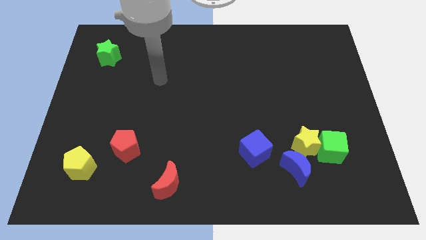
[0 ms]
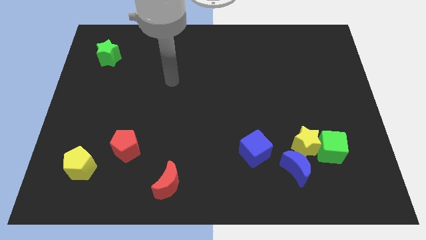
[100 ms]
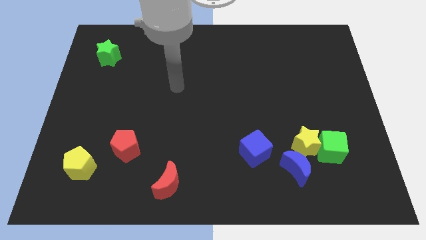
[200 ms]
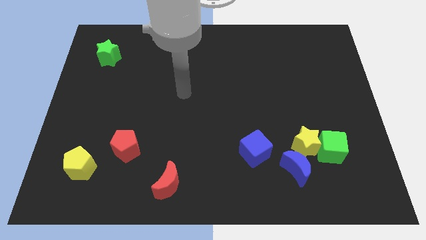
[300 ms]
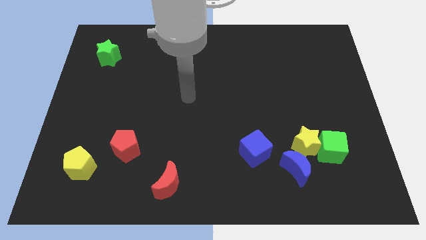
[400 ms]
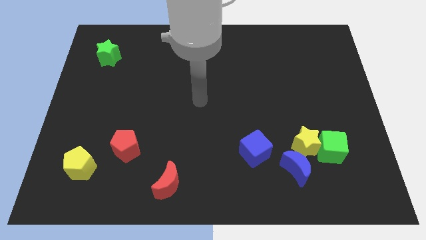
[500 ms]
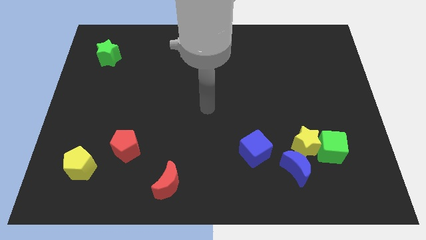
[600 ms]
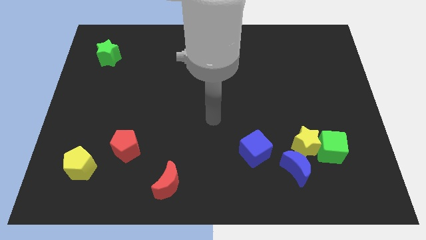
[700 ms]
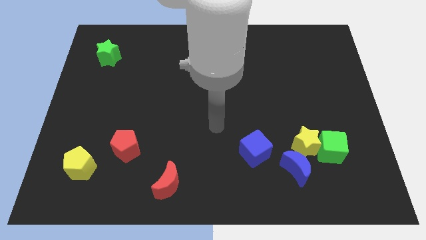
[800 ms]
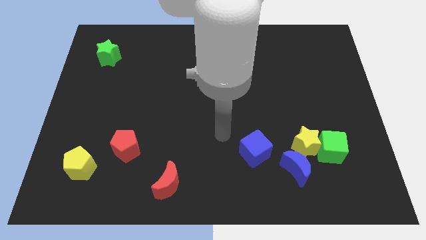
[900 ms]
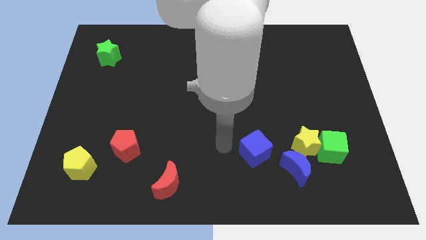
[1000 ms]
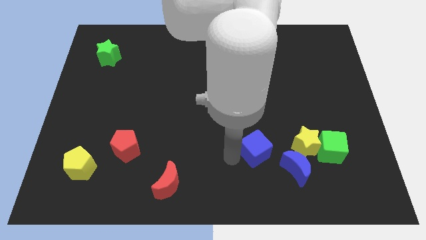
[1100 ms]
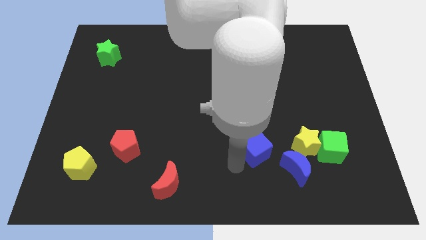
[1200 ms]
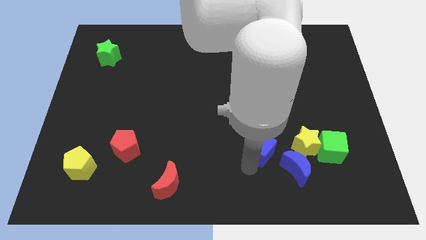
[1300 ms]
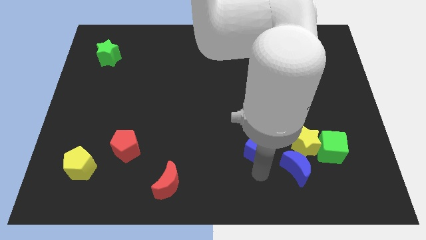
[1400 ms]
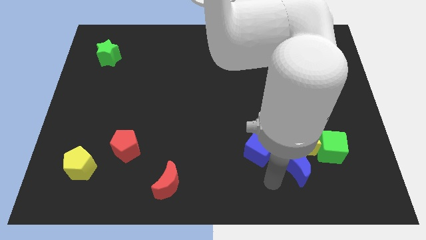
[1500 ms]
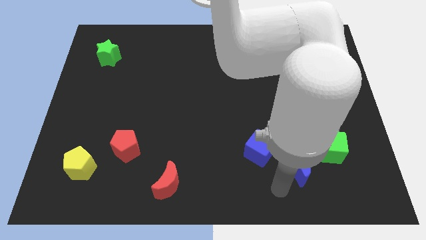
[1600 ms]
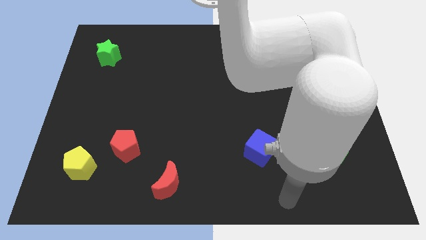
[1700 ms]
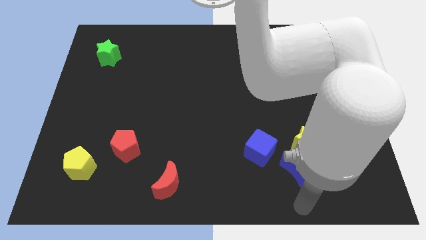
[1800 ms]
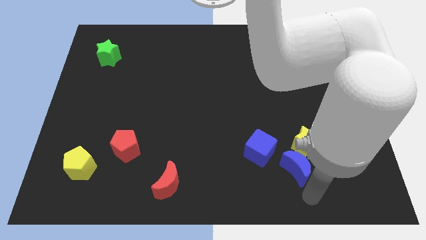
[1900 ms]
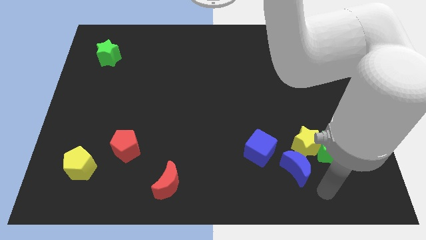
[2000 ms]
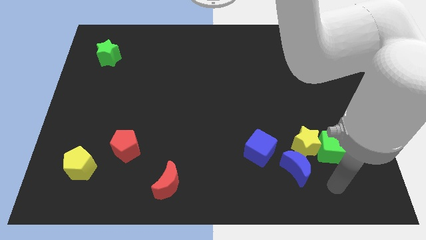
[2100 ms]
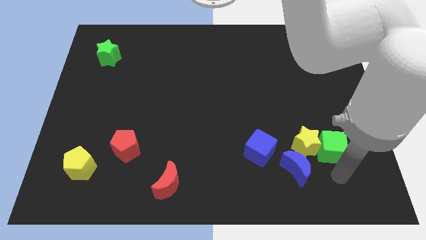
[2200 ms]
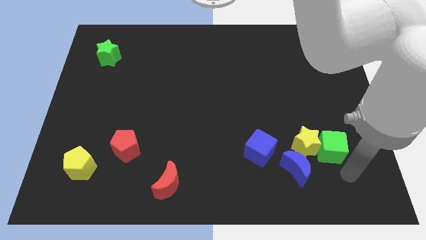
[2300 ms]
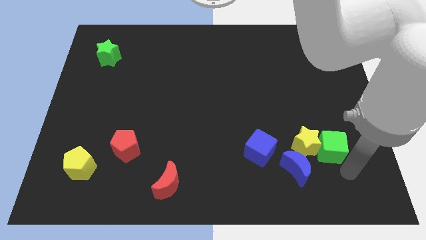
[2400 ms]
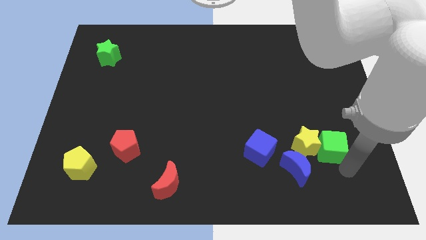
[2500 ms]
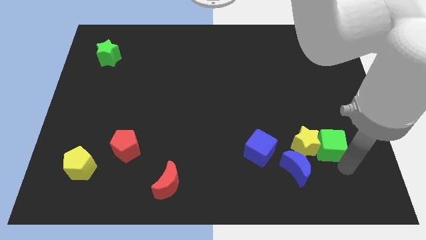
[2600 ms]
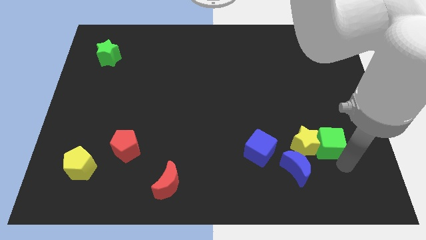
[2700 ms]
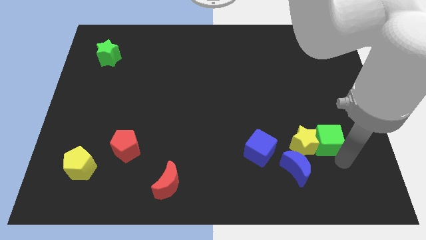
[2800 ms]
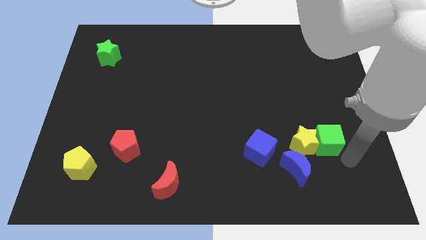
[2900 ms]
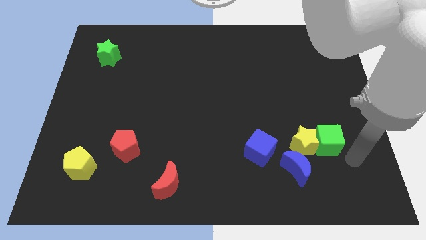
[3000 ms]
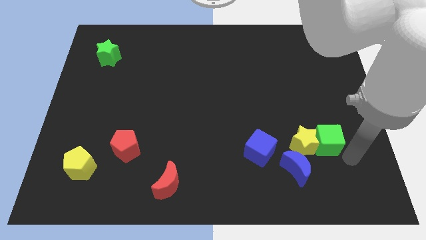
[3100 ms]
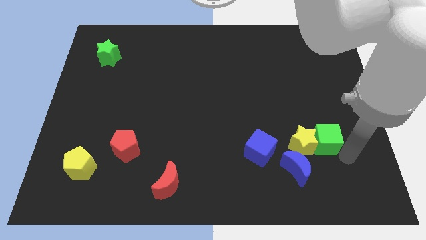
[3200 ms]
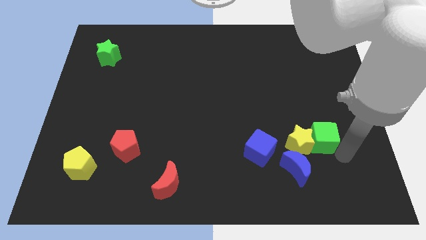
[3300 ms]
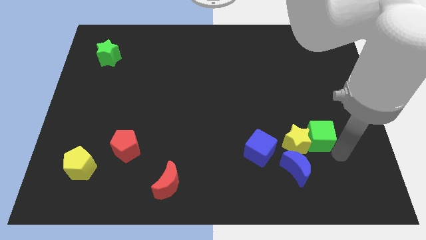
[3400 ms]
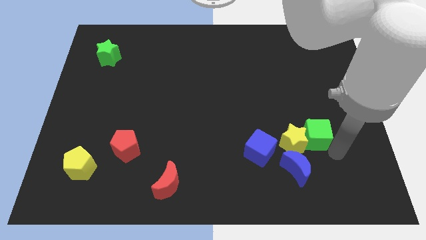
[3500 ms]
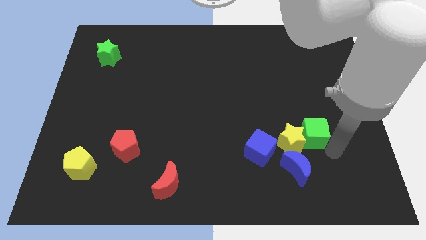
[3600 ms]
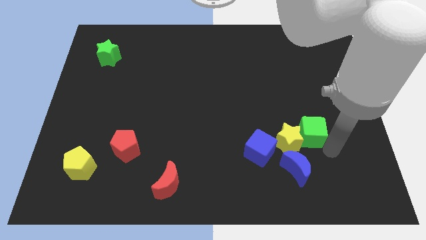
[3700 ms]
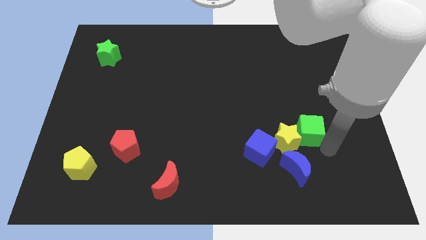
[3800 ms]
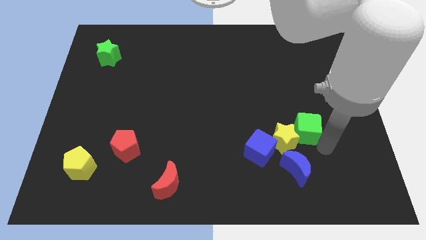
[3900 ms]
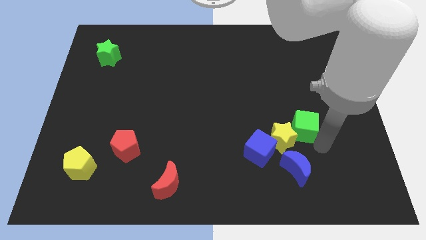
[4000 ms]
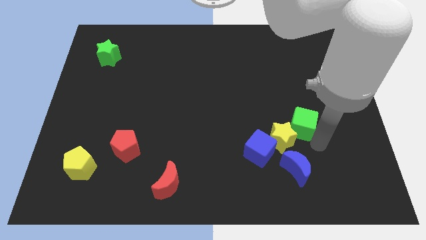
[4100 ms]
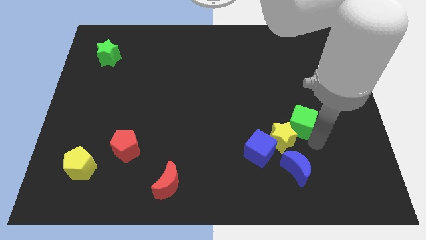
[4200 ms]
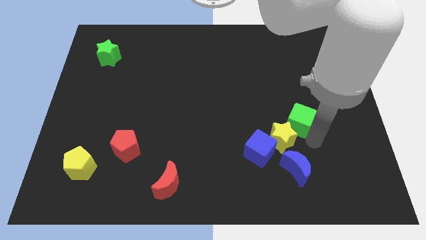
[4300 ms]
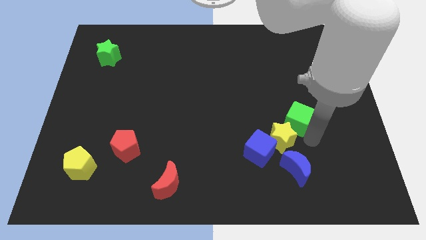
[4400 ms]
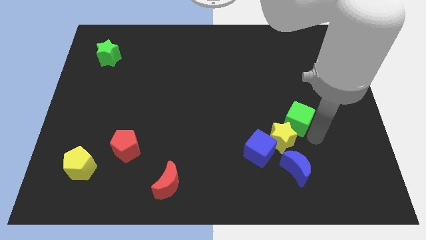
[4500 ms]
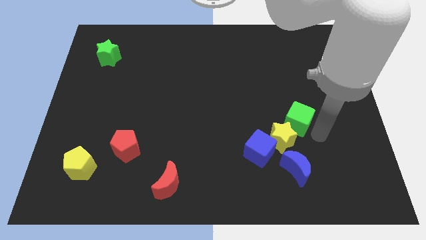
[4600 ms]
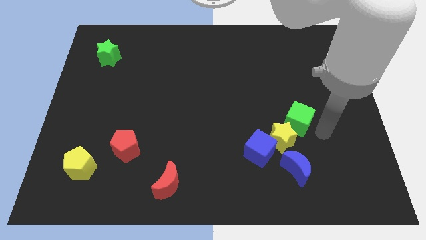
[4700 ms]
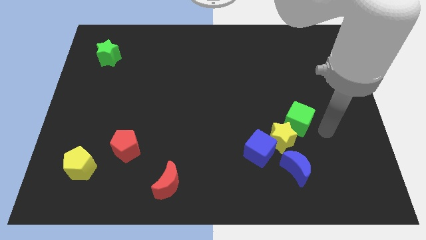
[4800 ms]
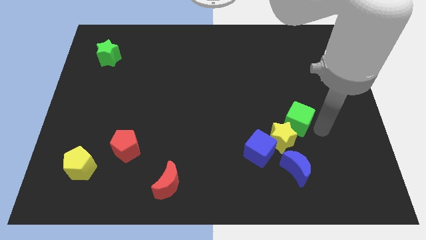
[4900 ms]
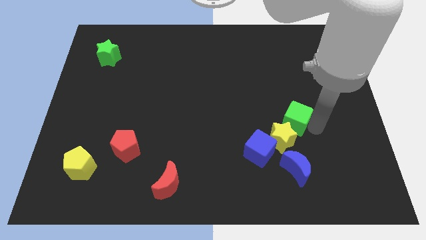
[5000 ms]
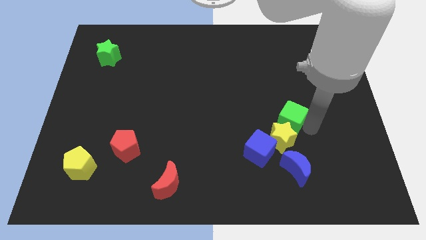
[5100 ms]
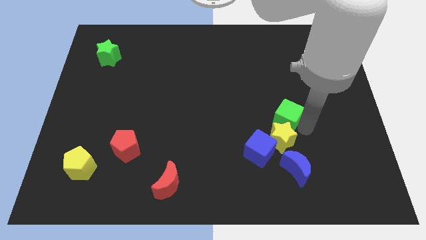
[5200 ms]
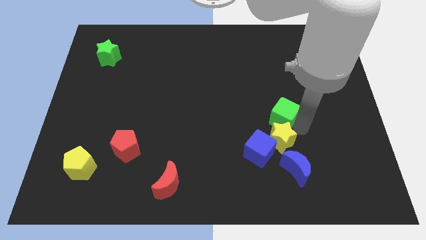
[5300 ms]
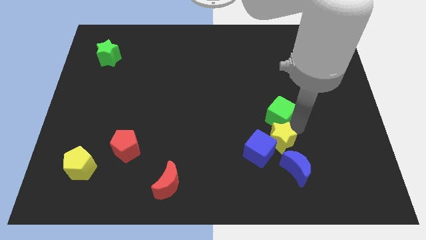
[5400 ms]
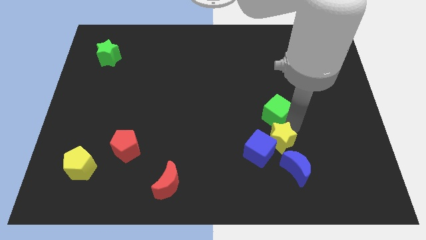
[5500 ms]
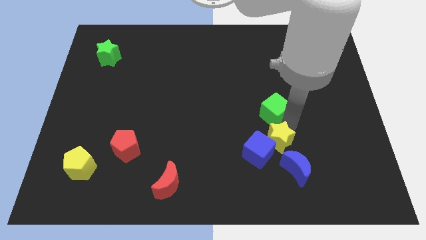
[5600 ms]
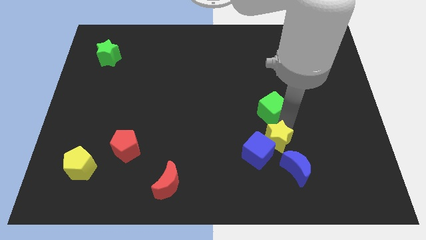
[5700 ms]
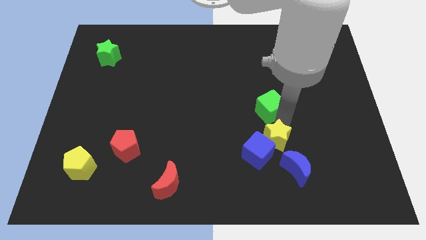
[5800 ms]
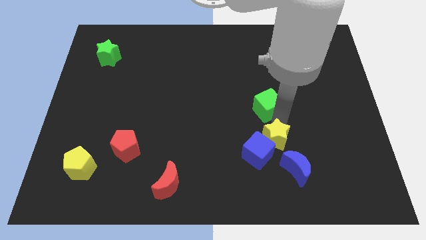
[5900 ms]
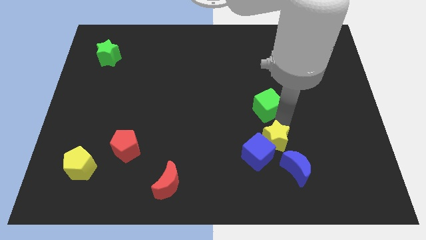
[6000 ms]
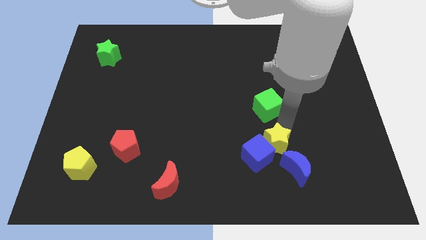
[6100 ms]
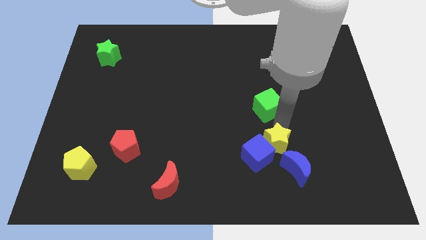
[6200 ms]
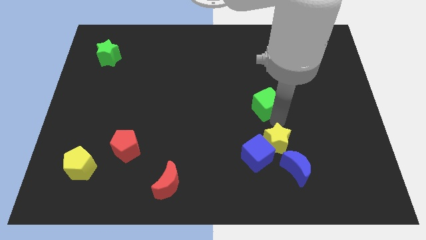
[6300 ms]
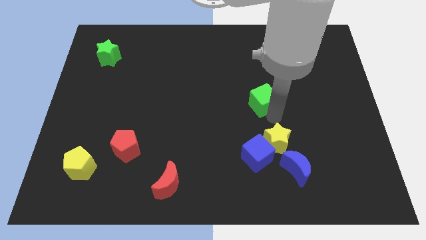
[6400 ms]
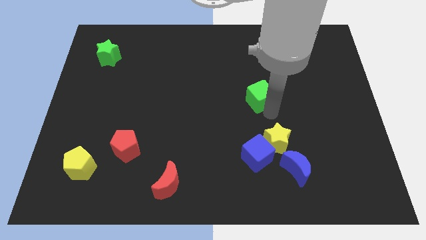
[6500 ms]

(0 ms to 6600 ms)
move the green cube upwards and then left

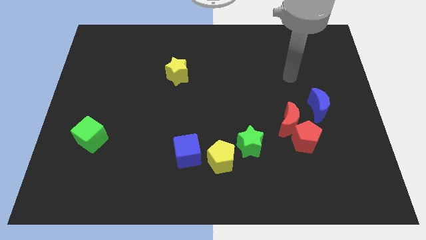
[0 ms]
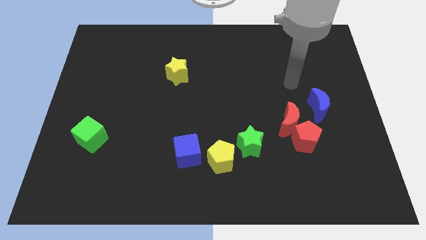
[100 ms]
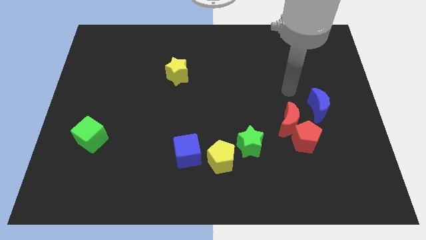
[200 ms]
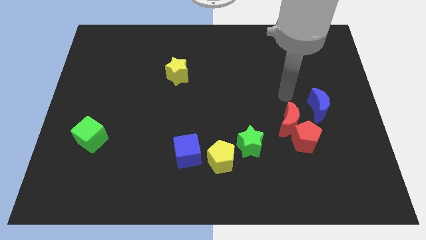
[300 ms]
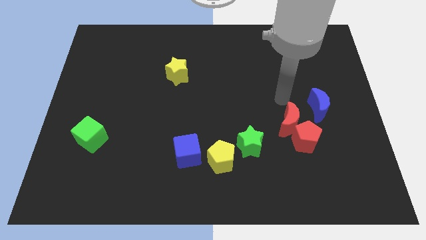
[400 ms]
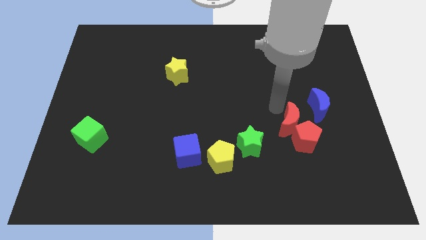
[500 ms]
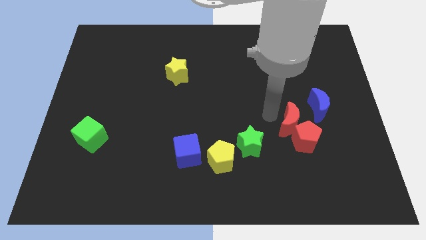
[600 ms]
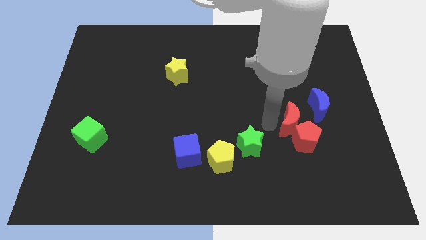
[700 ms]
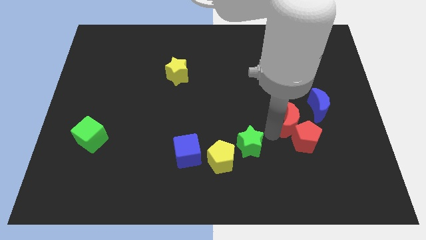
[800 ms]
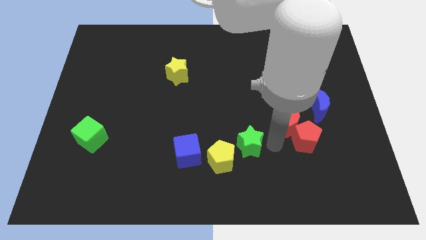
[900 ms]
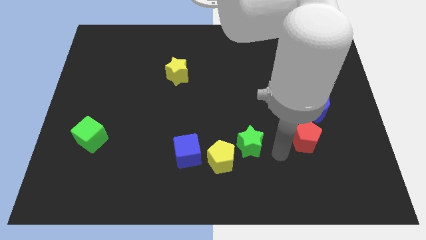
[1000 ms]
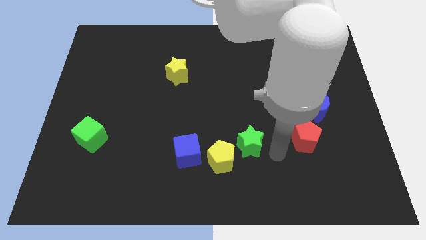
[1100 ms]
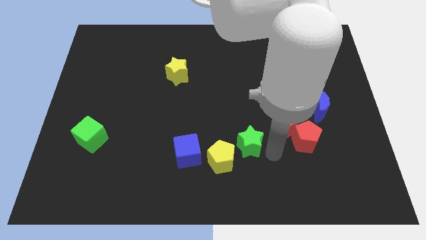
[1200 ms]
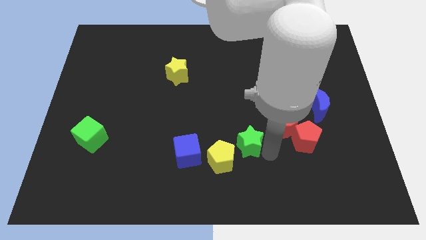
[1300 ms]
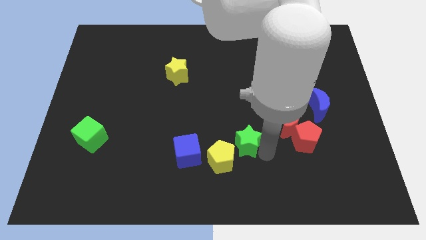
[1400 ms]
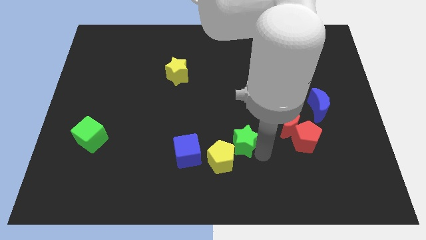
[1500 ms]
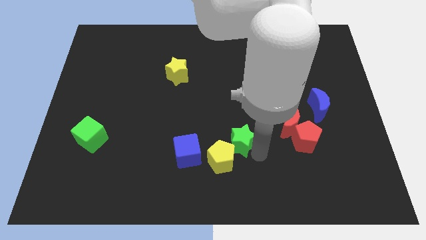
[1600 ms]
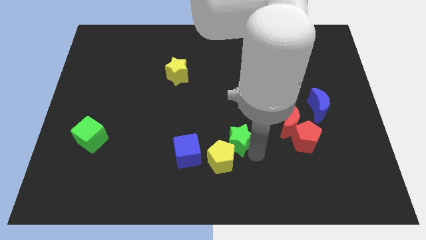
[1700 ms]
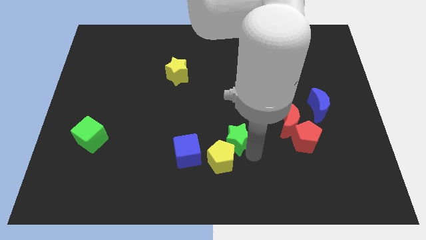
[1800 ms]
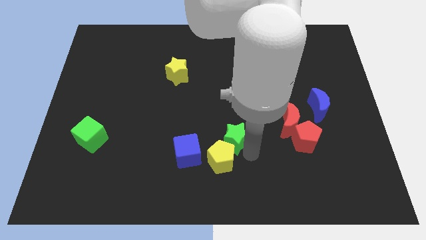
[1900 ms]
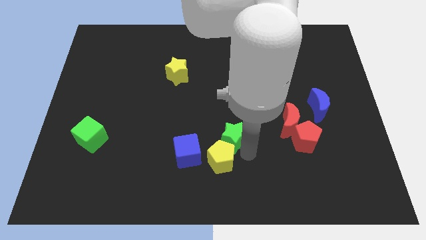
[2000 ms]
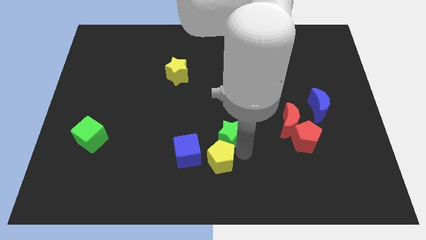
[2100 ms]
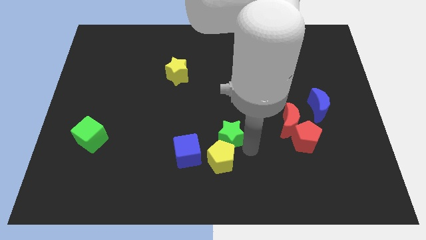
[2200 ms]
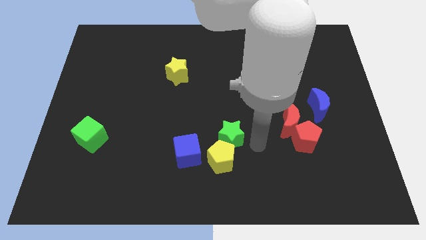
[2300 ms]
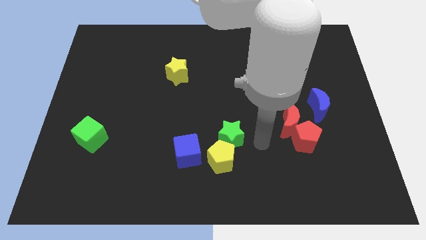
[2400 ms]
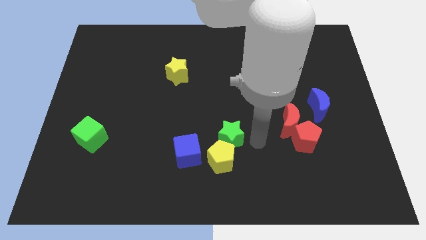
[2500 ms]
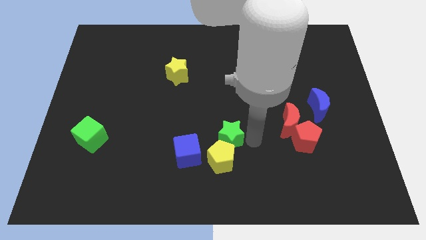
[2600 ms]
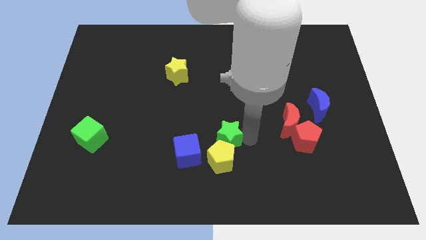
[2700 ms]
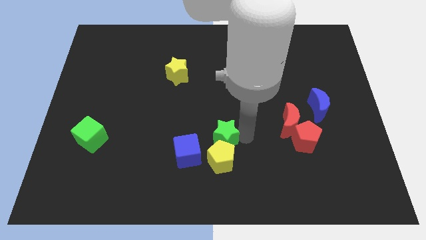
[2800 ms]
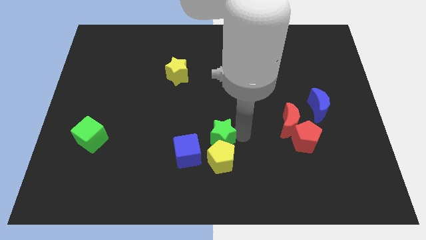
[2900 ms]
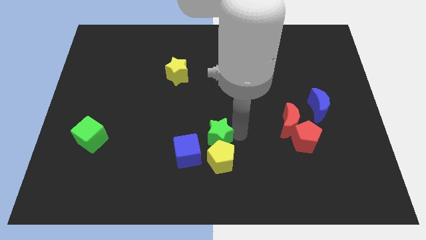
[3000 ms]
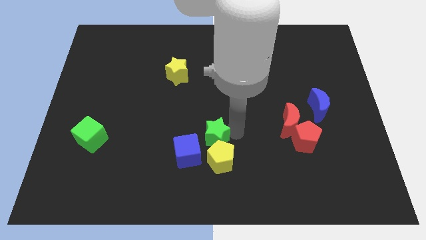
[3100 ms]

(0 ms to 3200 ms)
slightly move the green star to the left
